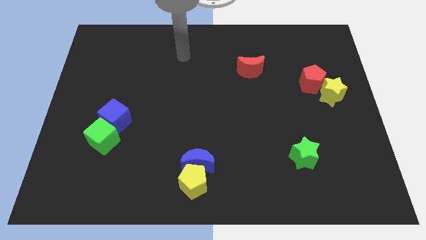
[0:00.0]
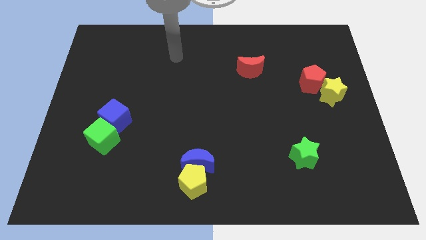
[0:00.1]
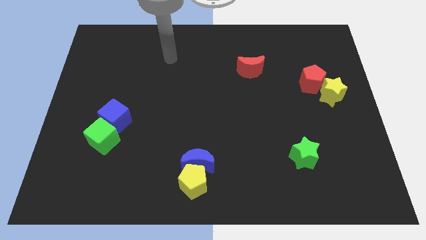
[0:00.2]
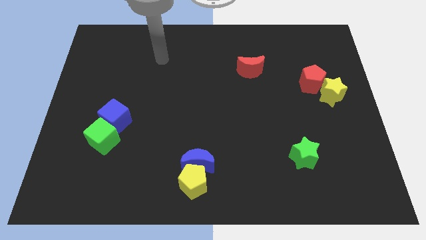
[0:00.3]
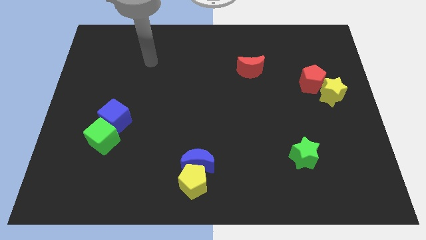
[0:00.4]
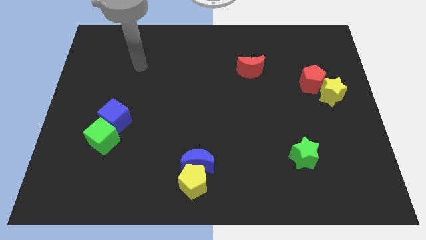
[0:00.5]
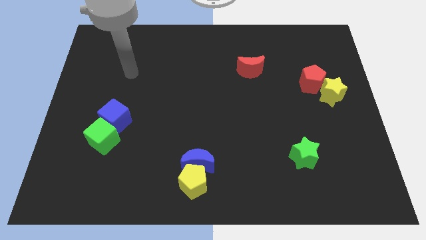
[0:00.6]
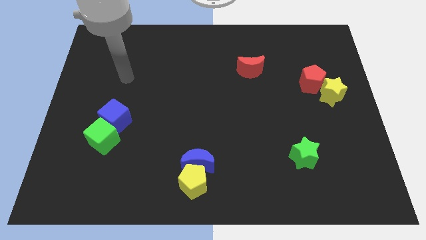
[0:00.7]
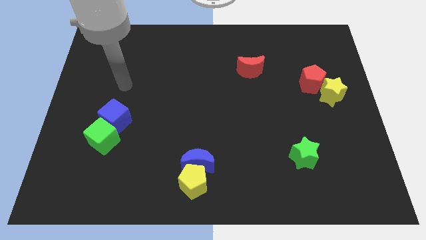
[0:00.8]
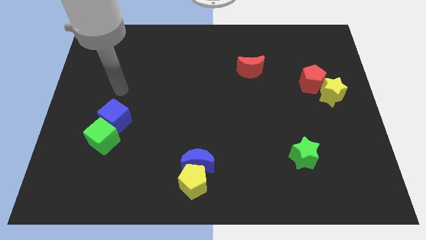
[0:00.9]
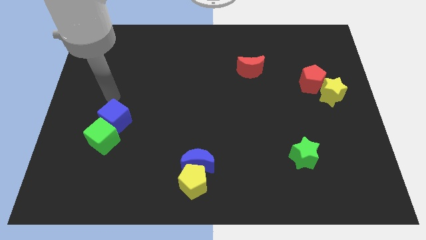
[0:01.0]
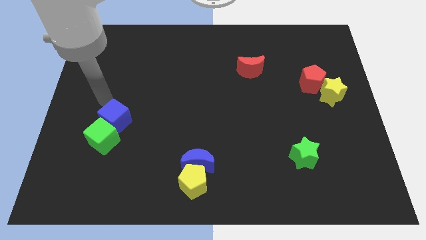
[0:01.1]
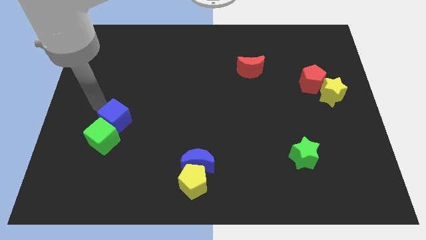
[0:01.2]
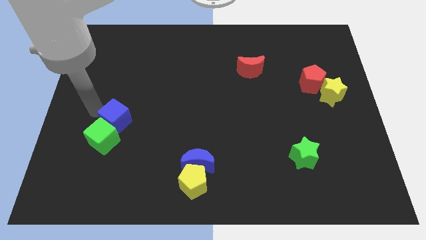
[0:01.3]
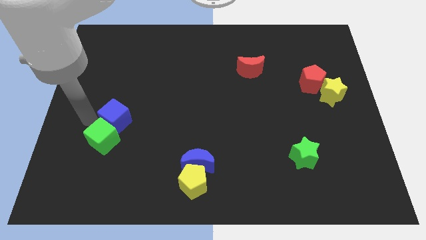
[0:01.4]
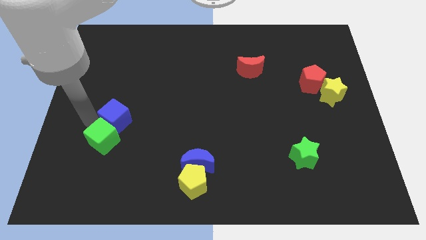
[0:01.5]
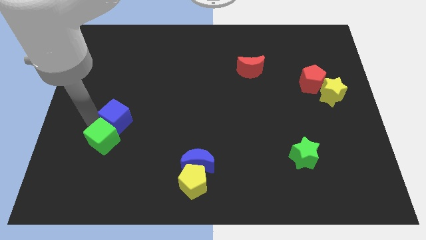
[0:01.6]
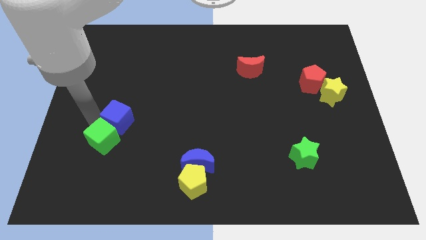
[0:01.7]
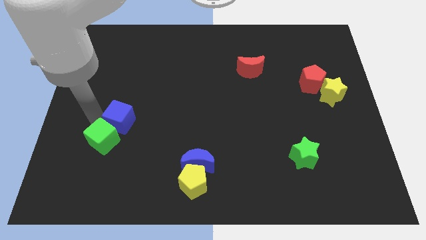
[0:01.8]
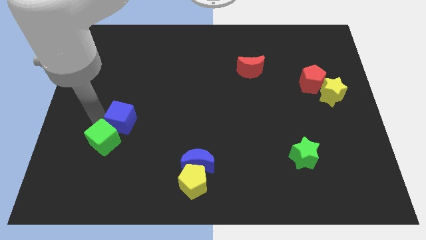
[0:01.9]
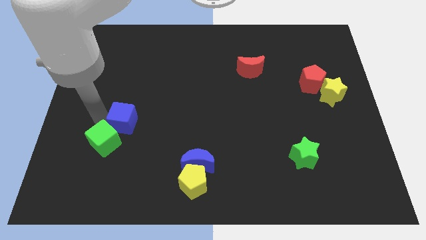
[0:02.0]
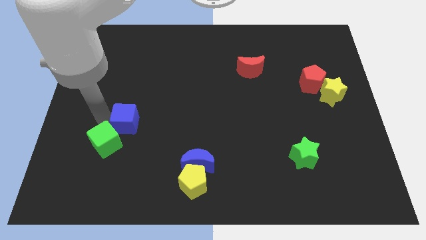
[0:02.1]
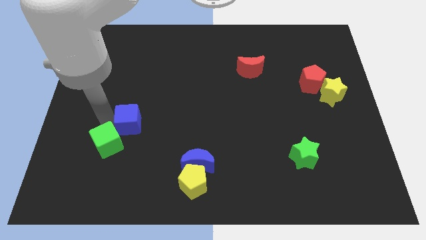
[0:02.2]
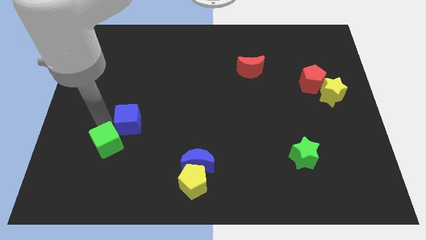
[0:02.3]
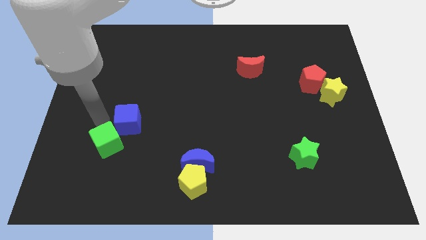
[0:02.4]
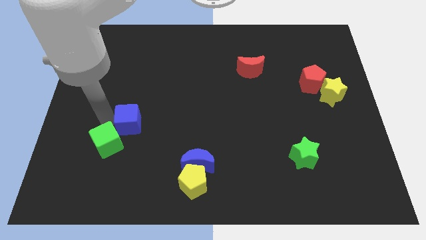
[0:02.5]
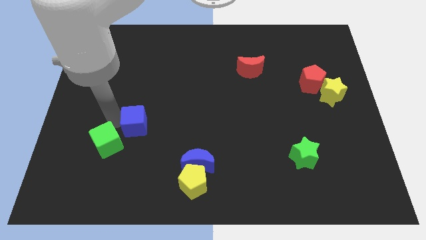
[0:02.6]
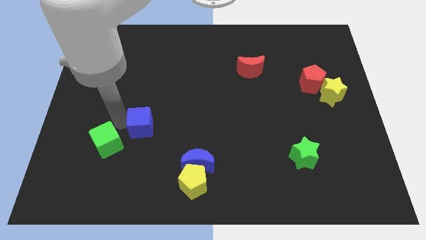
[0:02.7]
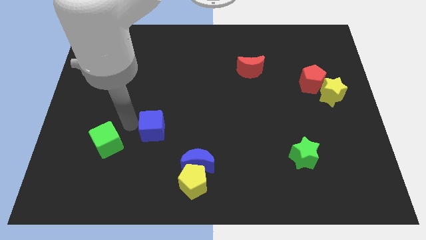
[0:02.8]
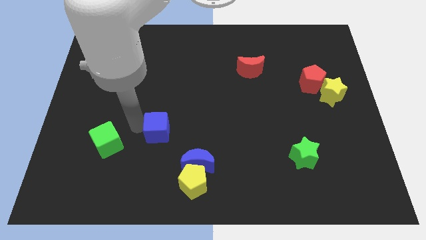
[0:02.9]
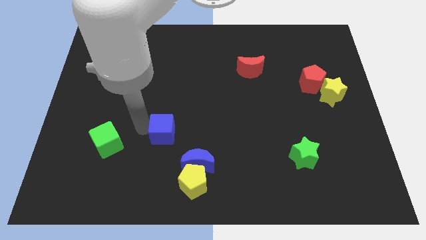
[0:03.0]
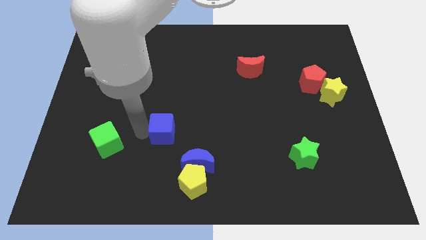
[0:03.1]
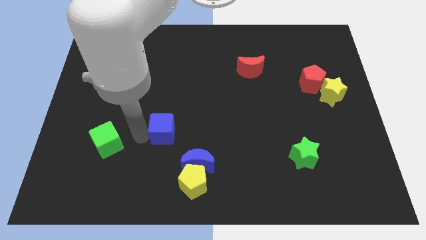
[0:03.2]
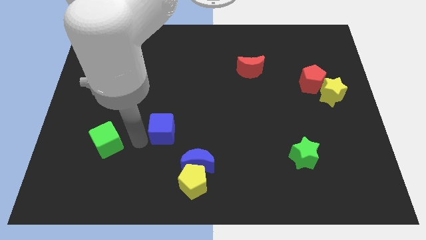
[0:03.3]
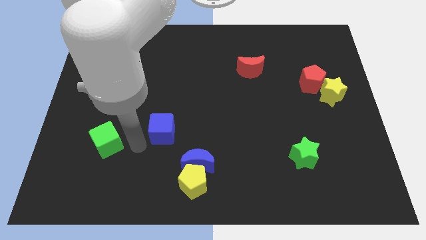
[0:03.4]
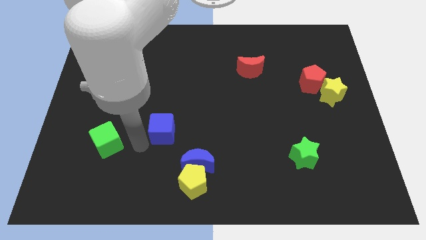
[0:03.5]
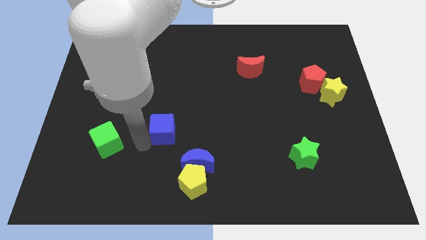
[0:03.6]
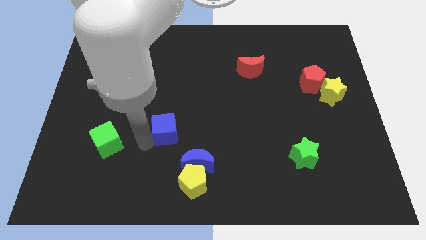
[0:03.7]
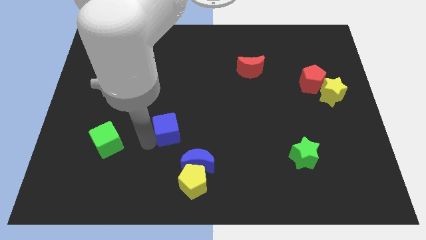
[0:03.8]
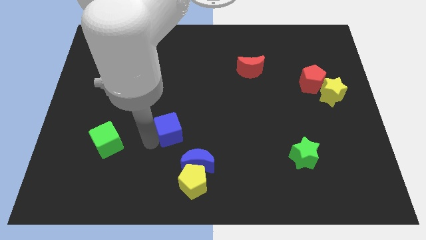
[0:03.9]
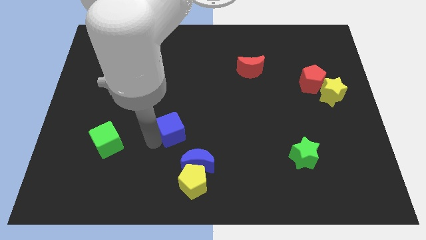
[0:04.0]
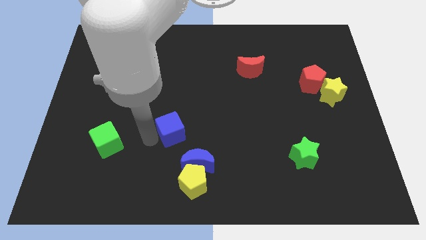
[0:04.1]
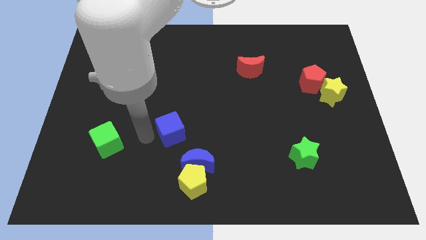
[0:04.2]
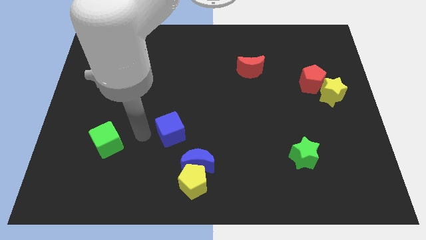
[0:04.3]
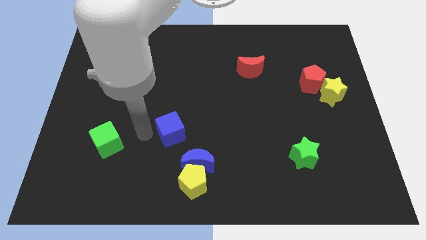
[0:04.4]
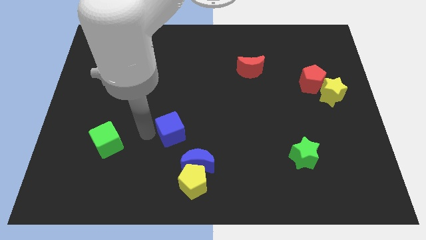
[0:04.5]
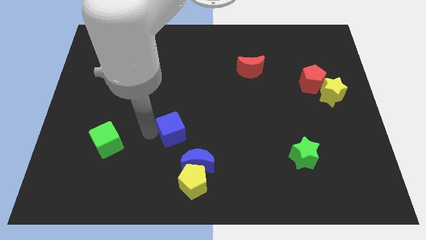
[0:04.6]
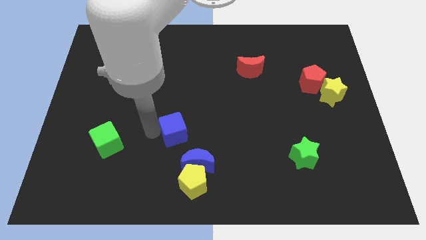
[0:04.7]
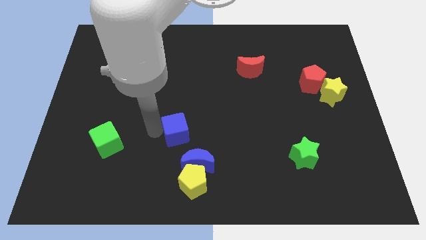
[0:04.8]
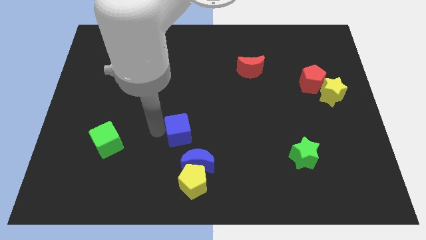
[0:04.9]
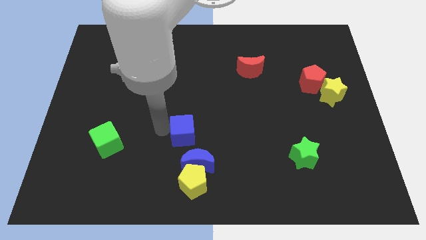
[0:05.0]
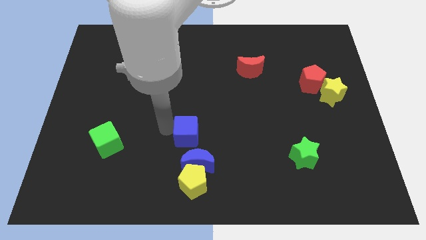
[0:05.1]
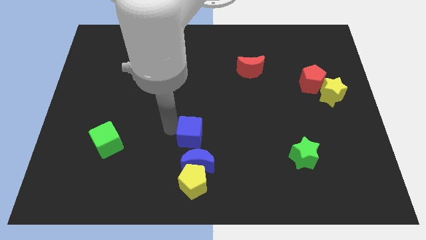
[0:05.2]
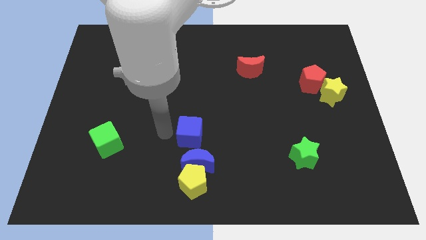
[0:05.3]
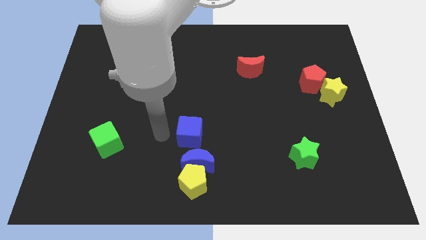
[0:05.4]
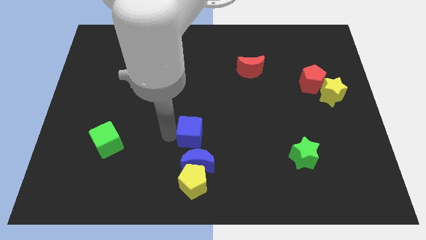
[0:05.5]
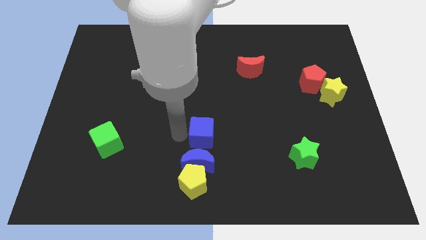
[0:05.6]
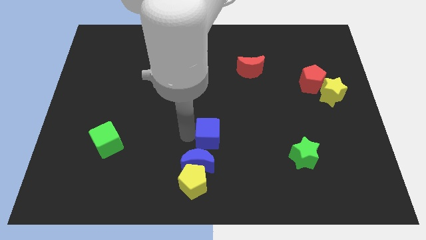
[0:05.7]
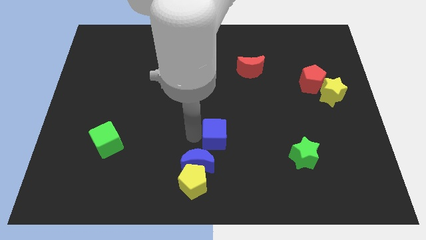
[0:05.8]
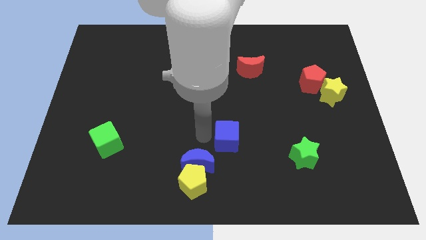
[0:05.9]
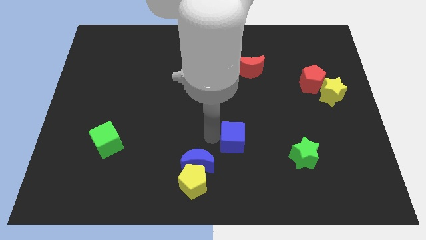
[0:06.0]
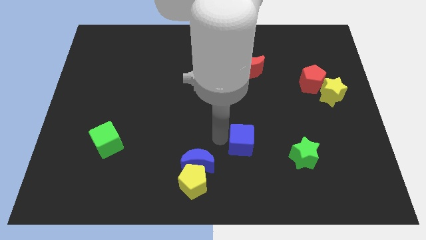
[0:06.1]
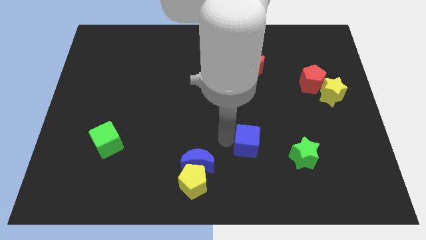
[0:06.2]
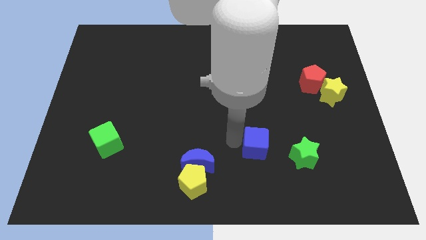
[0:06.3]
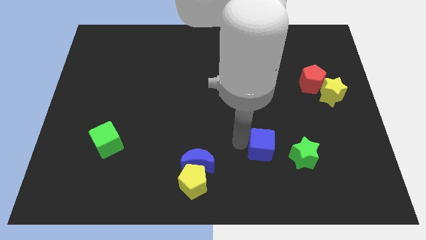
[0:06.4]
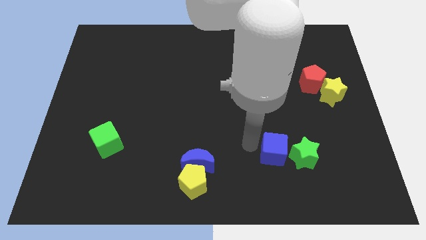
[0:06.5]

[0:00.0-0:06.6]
move the blue cube towards the green star

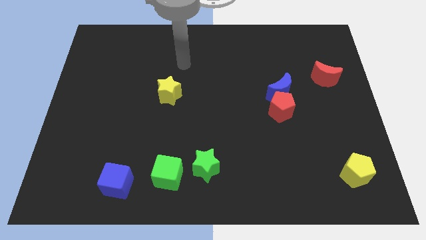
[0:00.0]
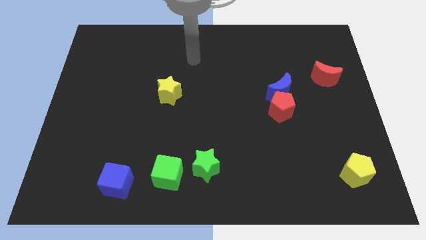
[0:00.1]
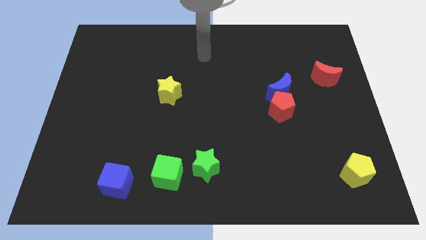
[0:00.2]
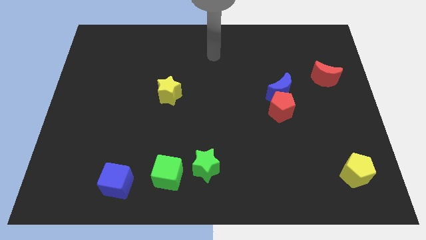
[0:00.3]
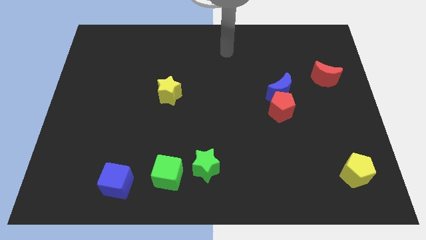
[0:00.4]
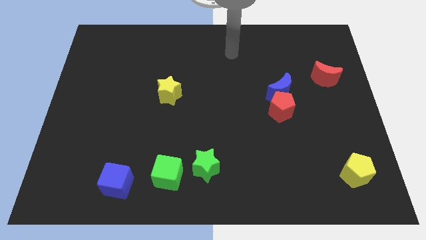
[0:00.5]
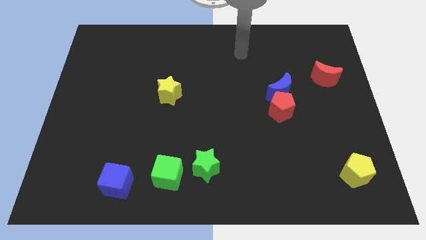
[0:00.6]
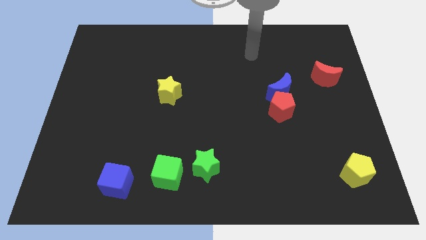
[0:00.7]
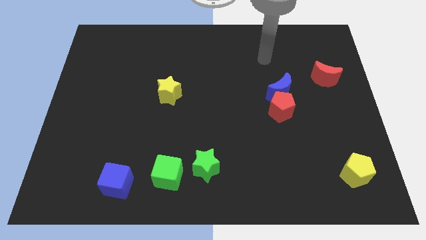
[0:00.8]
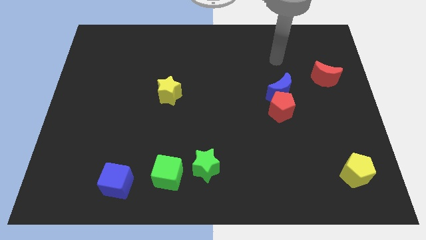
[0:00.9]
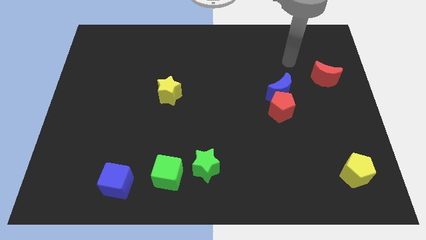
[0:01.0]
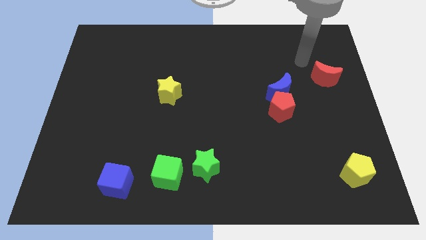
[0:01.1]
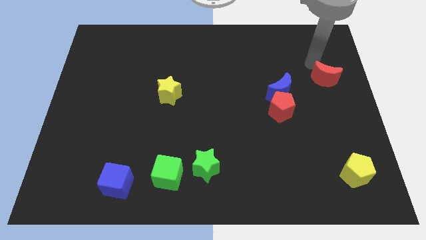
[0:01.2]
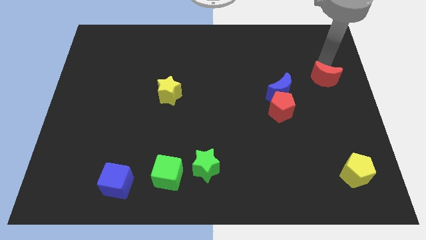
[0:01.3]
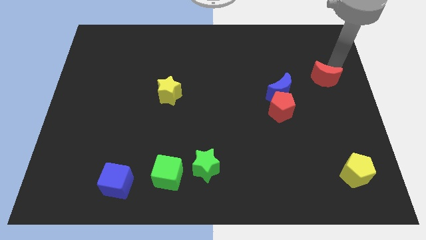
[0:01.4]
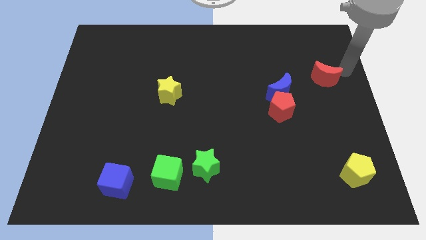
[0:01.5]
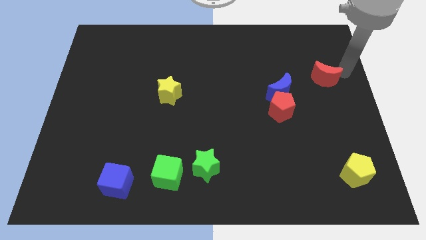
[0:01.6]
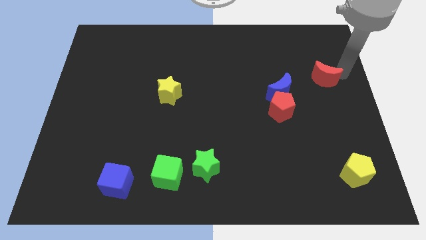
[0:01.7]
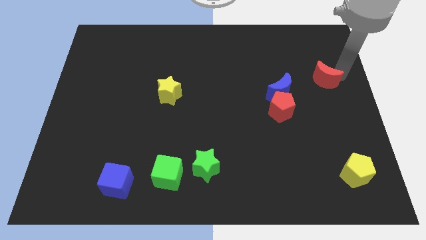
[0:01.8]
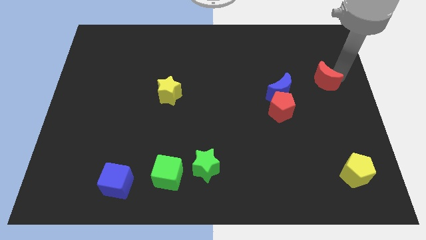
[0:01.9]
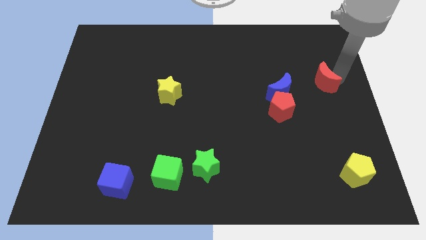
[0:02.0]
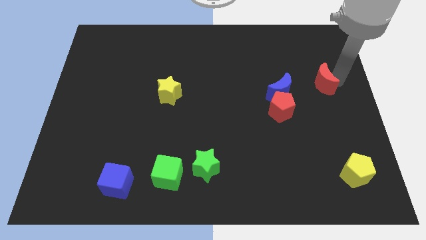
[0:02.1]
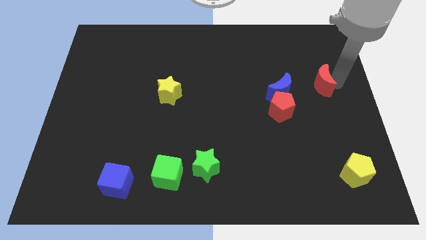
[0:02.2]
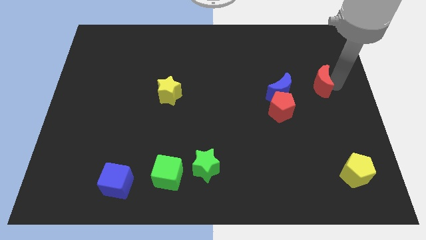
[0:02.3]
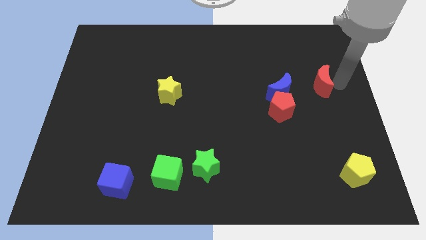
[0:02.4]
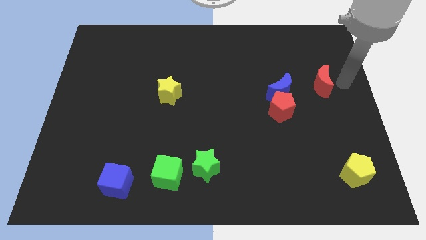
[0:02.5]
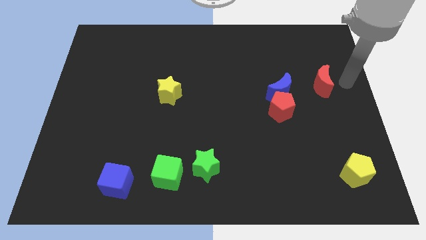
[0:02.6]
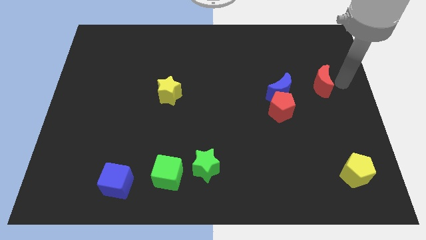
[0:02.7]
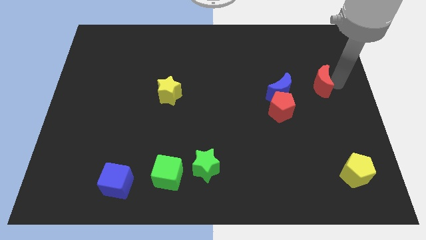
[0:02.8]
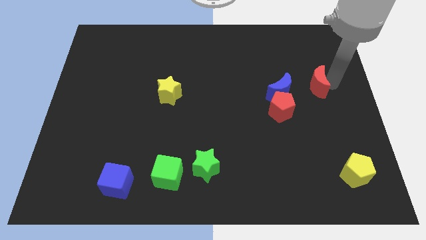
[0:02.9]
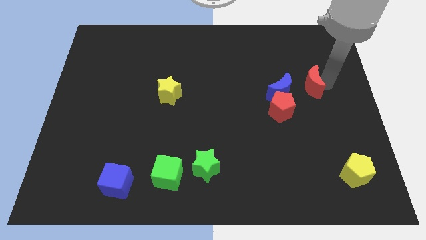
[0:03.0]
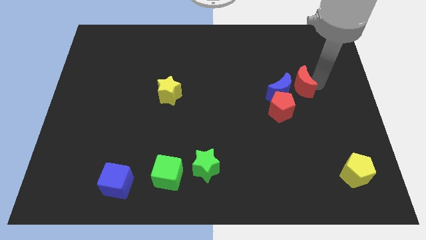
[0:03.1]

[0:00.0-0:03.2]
move the red moon to the blue moon
